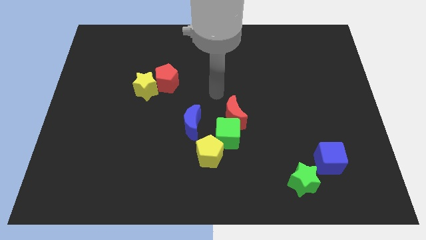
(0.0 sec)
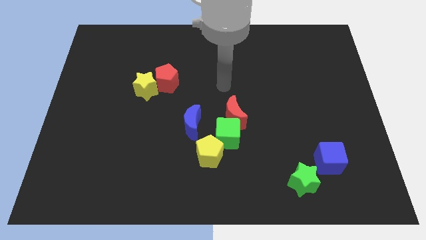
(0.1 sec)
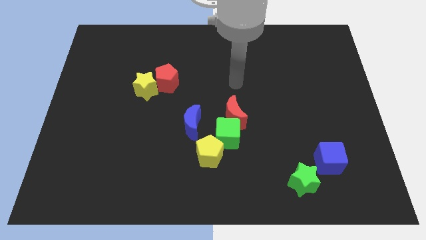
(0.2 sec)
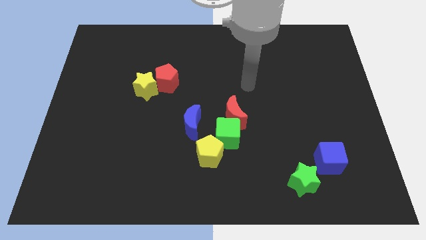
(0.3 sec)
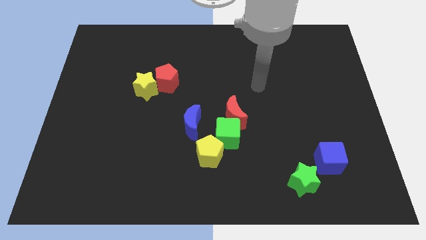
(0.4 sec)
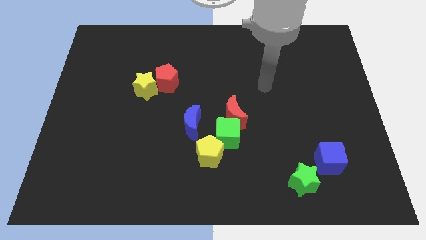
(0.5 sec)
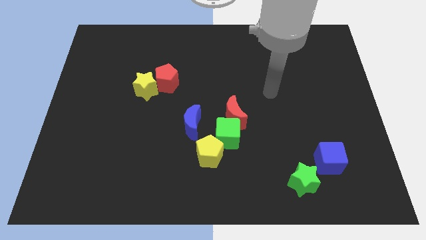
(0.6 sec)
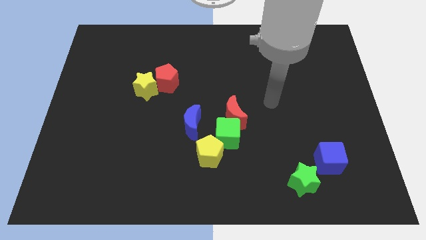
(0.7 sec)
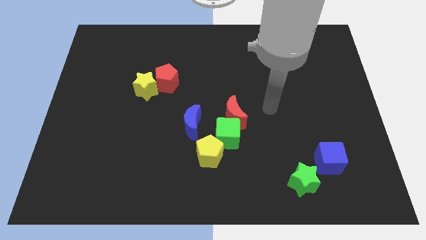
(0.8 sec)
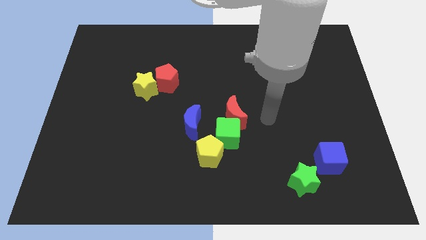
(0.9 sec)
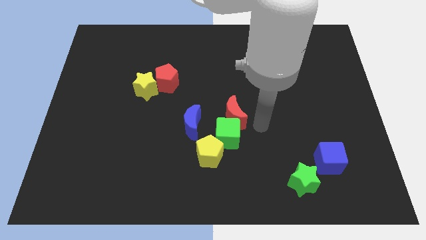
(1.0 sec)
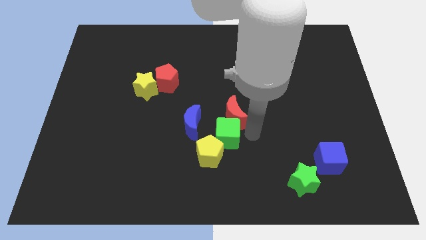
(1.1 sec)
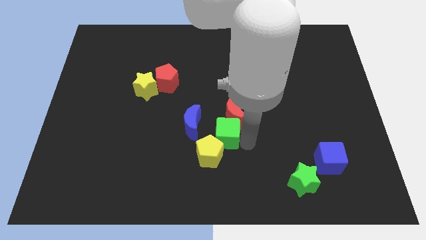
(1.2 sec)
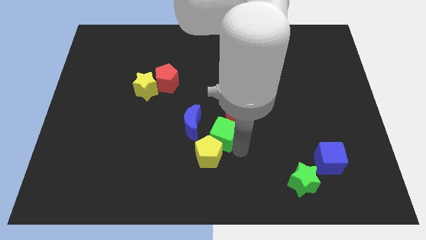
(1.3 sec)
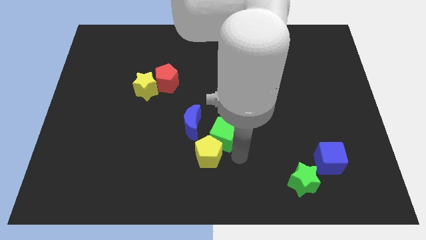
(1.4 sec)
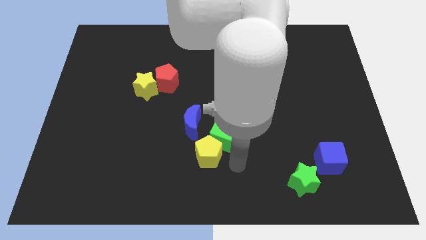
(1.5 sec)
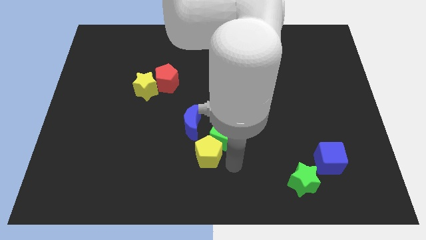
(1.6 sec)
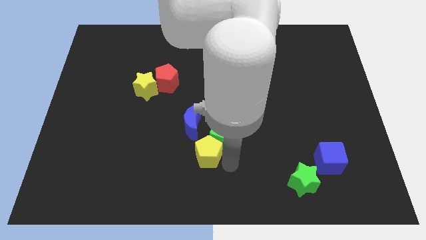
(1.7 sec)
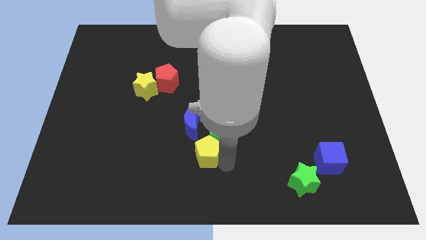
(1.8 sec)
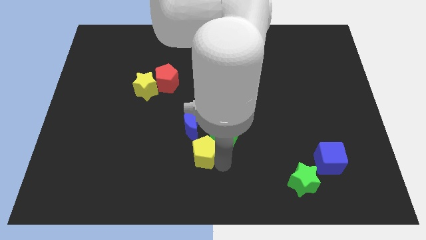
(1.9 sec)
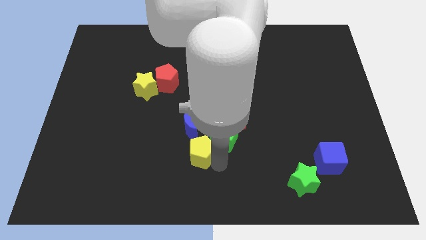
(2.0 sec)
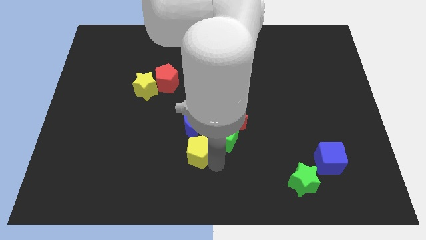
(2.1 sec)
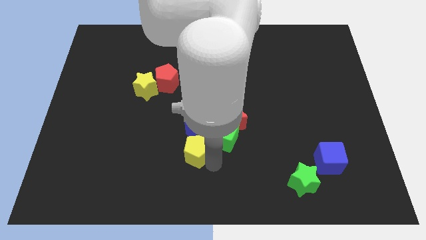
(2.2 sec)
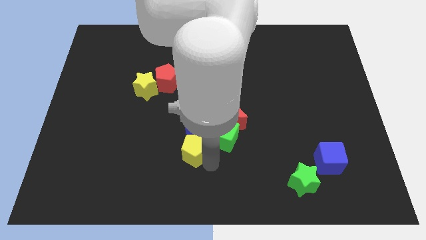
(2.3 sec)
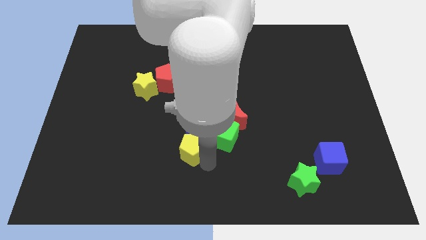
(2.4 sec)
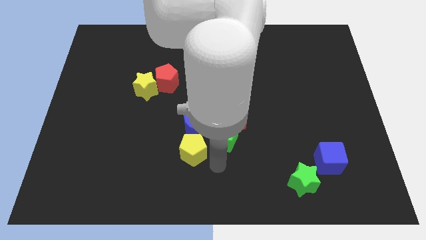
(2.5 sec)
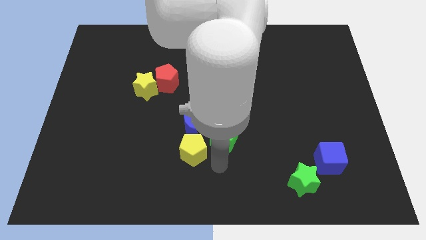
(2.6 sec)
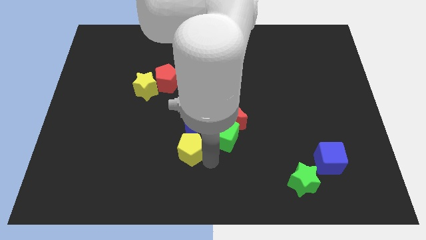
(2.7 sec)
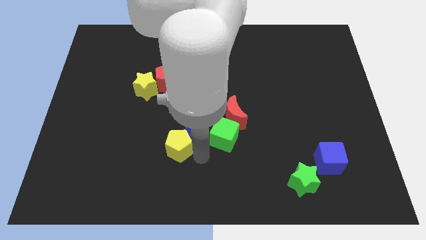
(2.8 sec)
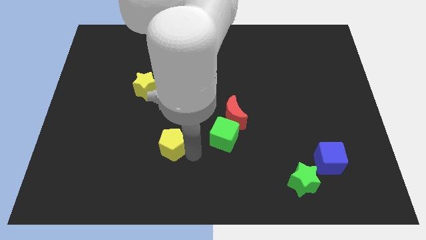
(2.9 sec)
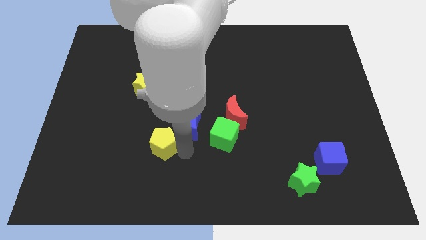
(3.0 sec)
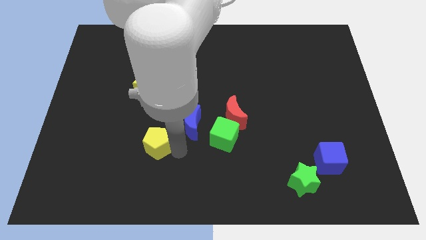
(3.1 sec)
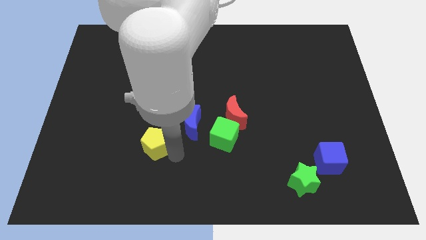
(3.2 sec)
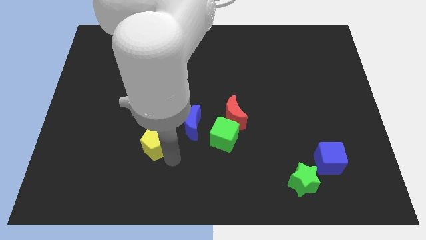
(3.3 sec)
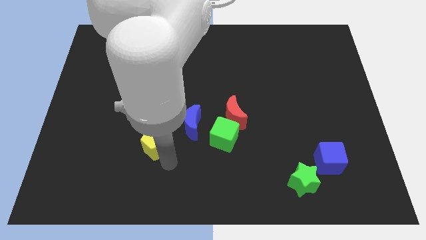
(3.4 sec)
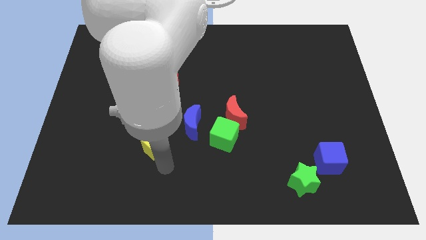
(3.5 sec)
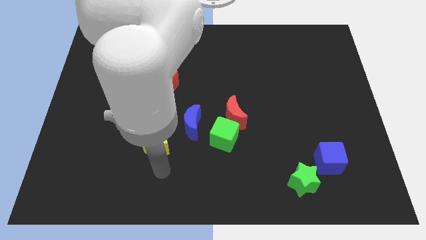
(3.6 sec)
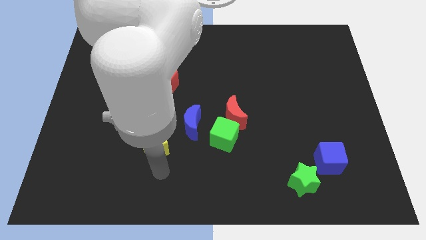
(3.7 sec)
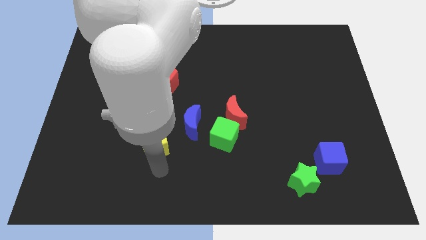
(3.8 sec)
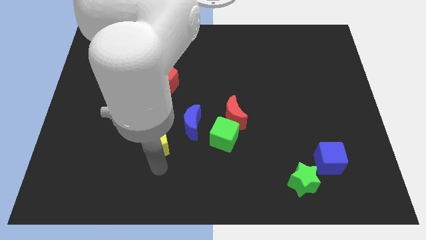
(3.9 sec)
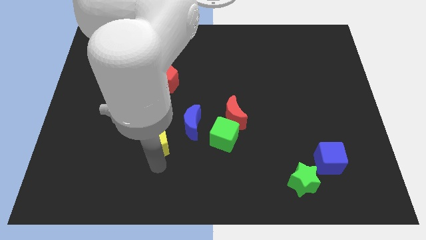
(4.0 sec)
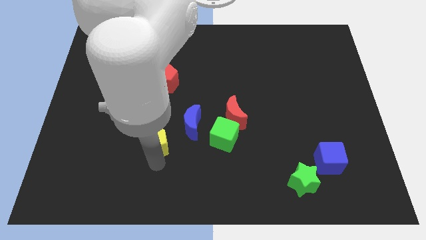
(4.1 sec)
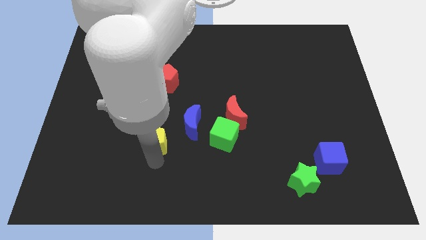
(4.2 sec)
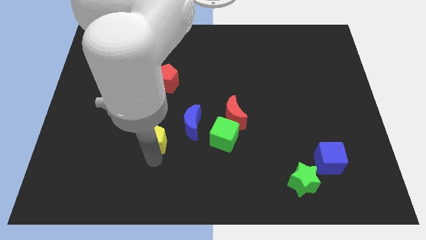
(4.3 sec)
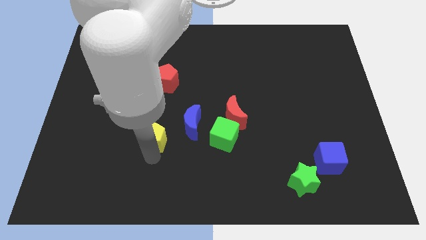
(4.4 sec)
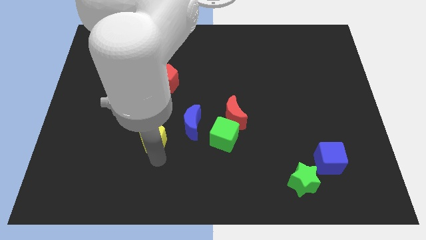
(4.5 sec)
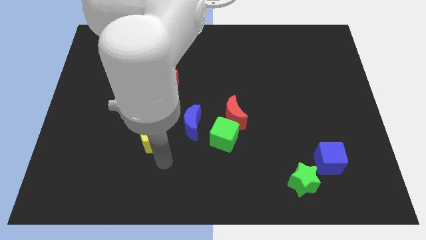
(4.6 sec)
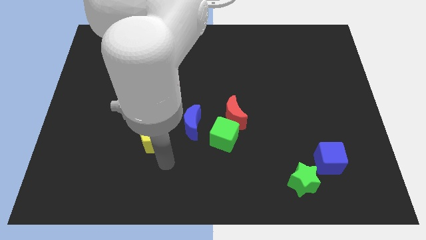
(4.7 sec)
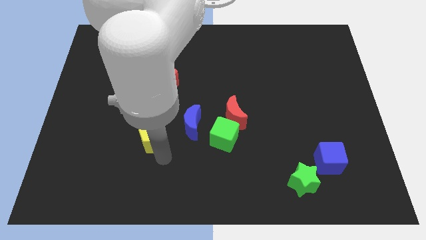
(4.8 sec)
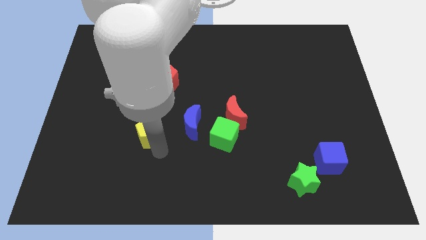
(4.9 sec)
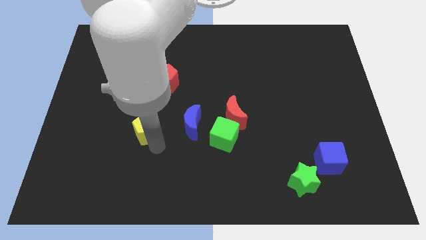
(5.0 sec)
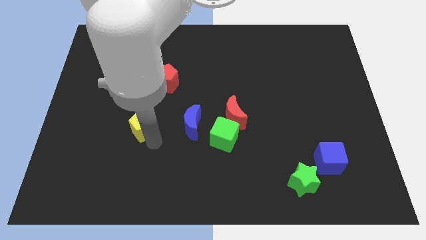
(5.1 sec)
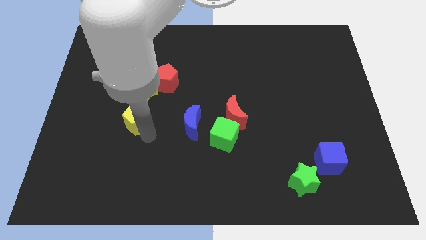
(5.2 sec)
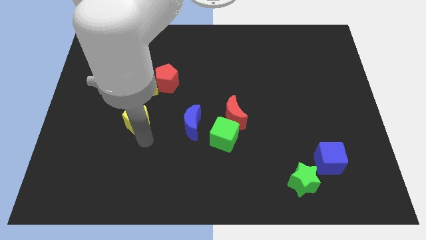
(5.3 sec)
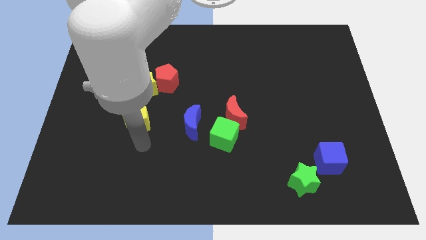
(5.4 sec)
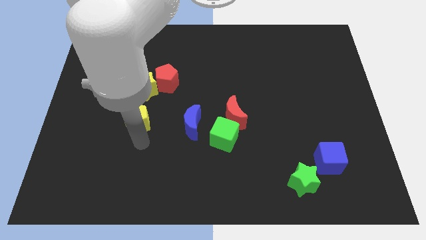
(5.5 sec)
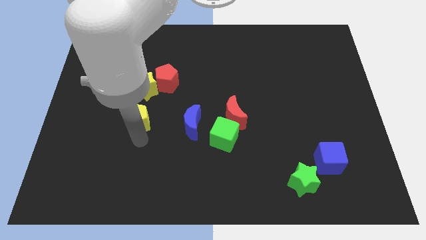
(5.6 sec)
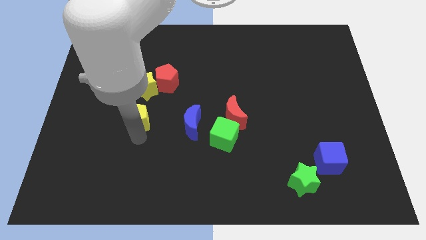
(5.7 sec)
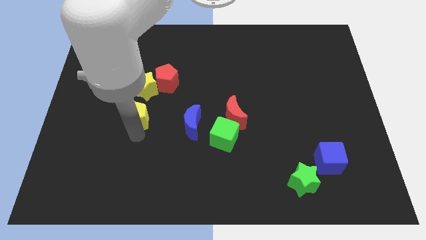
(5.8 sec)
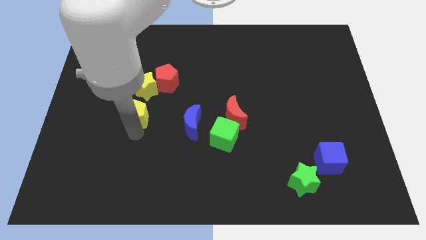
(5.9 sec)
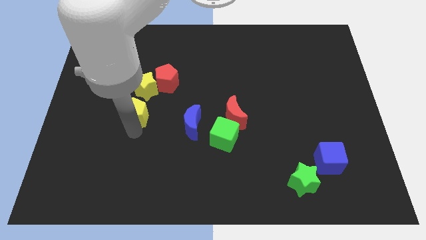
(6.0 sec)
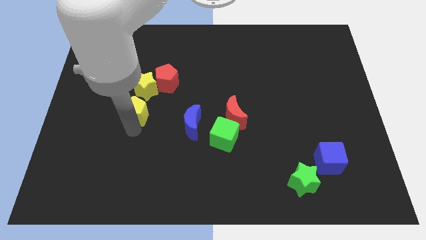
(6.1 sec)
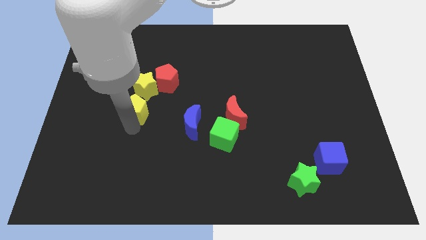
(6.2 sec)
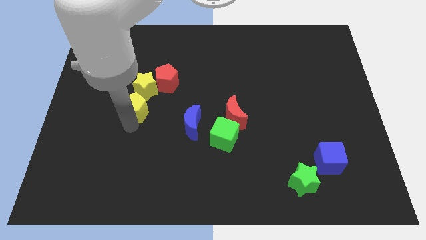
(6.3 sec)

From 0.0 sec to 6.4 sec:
push the yellow pentagon up and then to the left

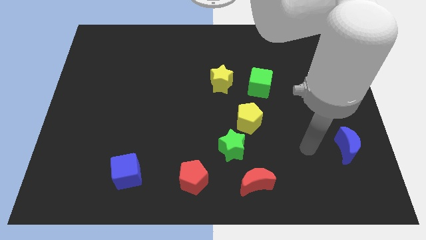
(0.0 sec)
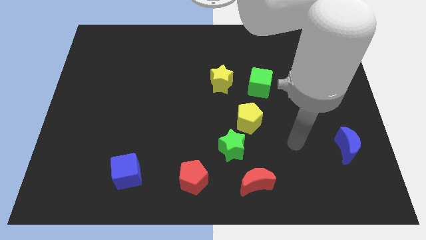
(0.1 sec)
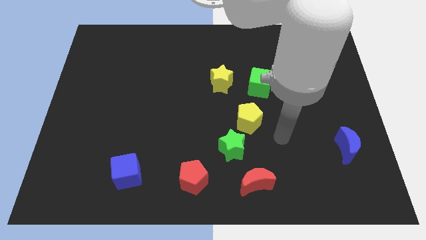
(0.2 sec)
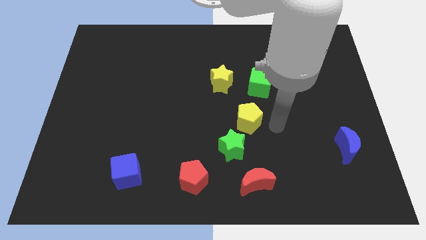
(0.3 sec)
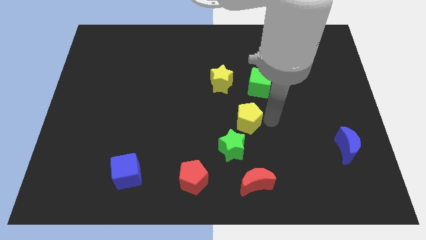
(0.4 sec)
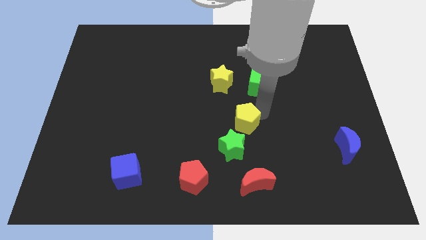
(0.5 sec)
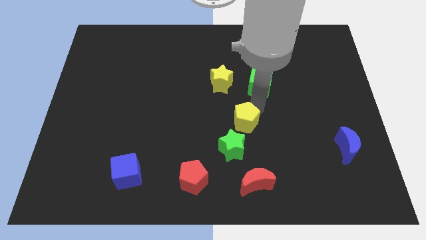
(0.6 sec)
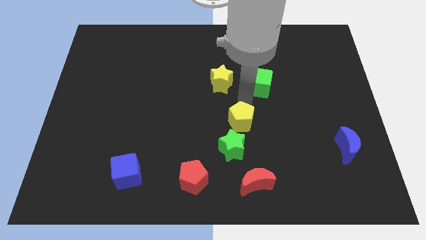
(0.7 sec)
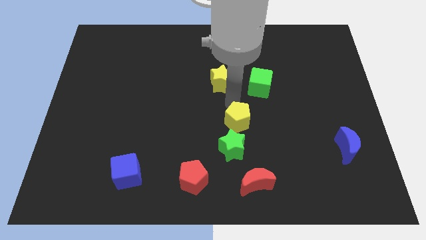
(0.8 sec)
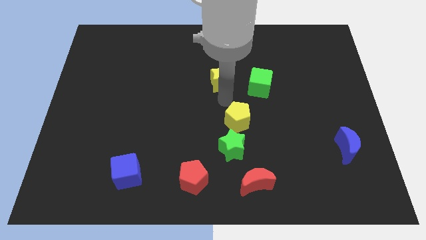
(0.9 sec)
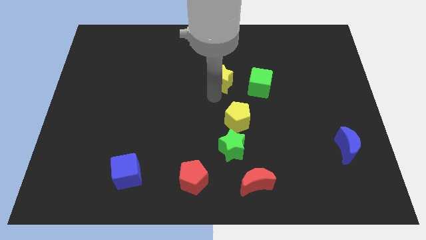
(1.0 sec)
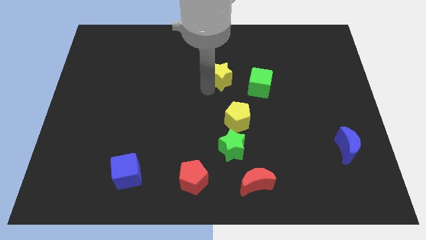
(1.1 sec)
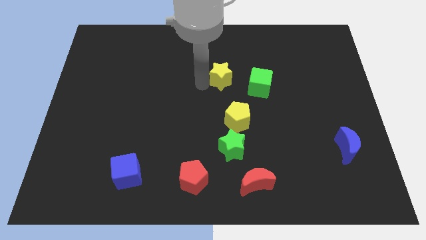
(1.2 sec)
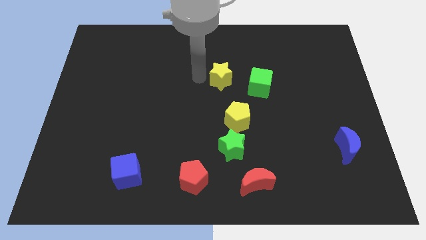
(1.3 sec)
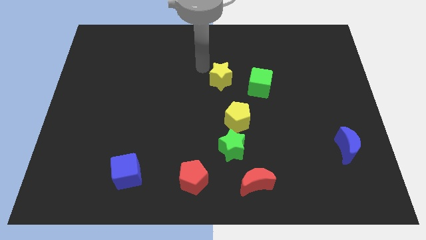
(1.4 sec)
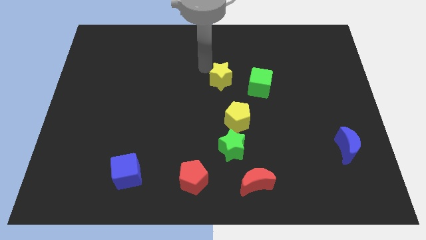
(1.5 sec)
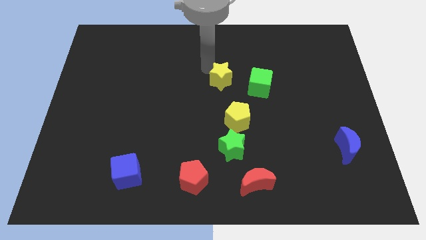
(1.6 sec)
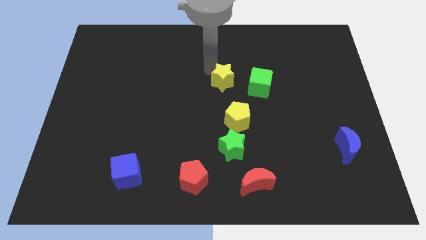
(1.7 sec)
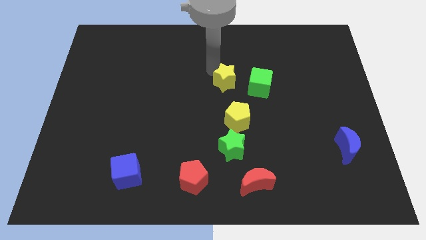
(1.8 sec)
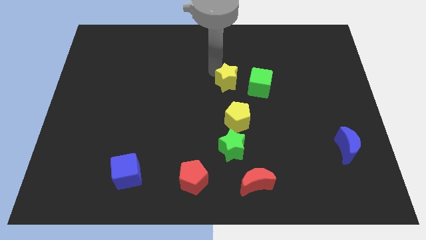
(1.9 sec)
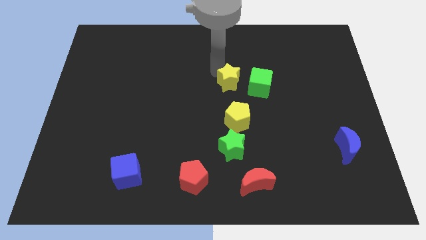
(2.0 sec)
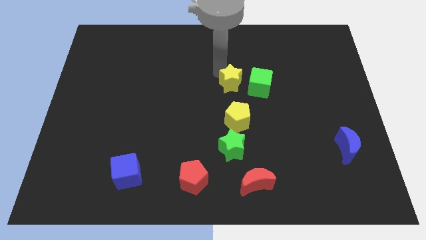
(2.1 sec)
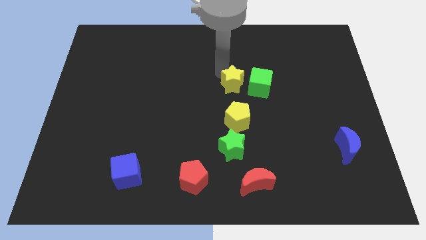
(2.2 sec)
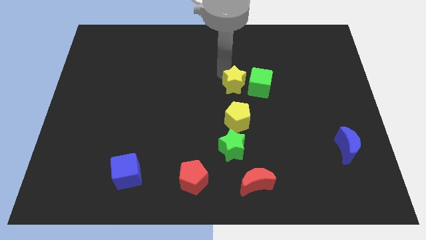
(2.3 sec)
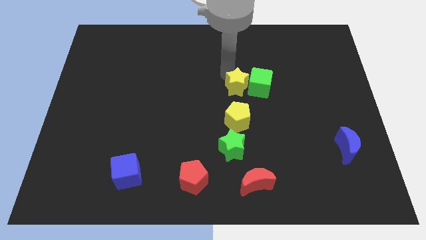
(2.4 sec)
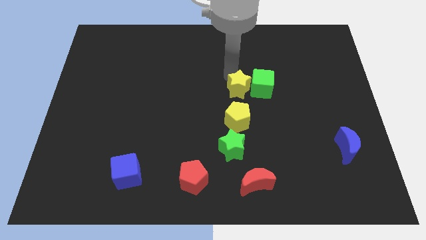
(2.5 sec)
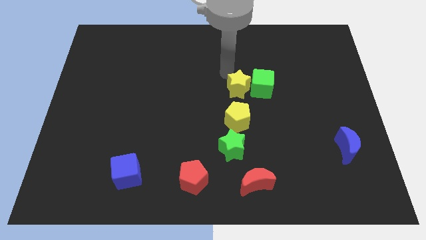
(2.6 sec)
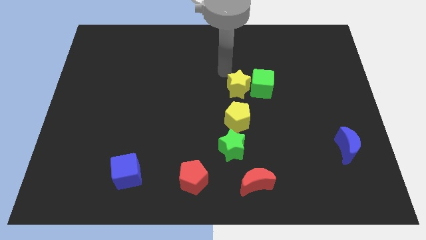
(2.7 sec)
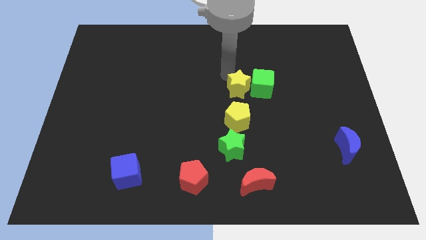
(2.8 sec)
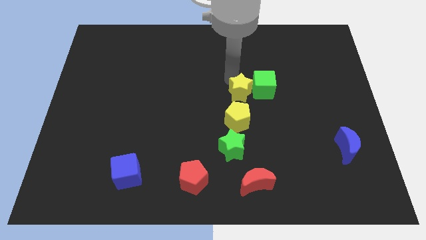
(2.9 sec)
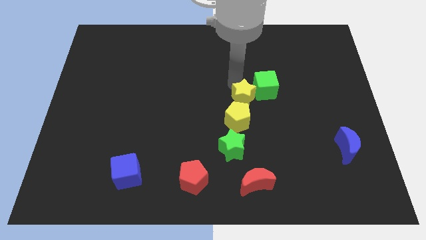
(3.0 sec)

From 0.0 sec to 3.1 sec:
slightly push the yellow star diagonally downwards and right
